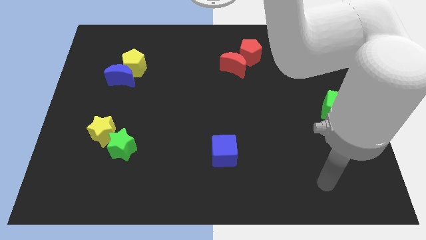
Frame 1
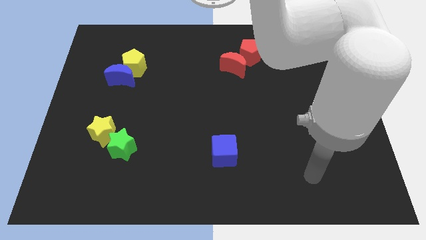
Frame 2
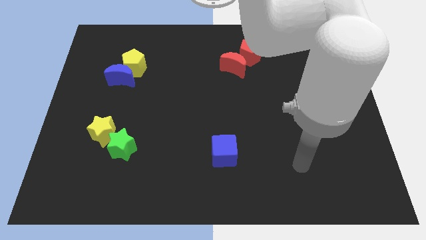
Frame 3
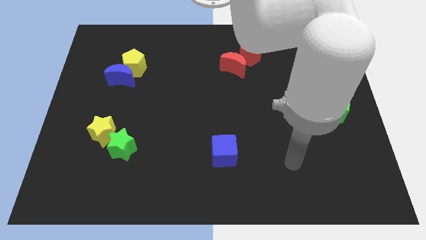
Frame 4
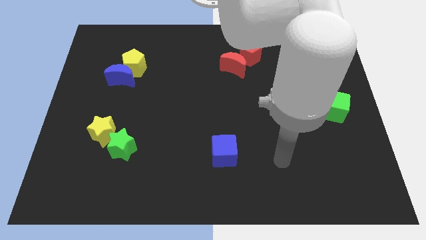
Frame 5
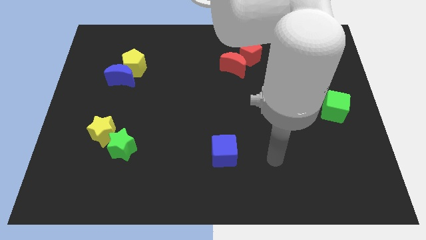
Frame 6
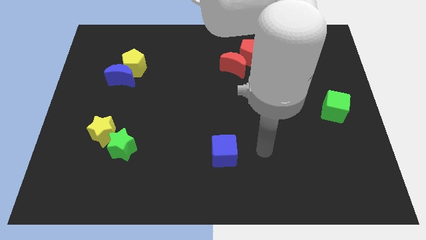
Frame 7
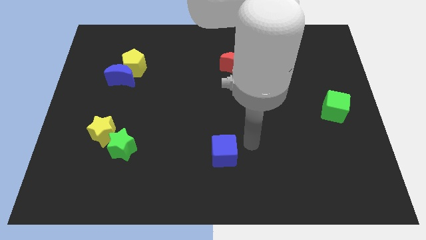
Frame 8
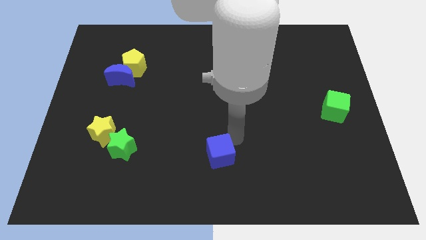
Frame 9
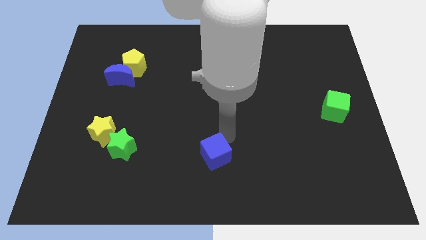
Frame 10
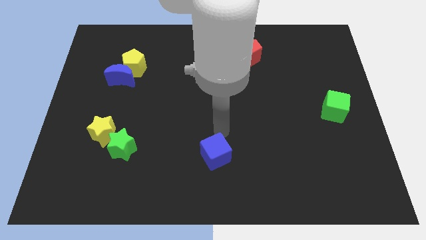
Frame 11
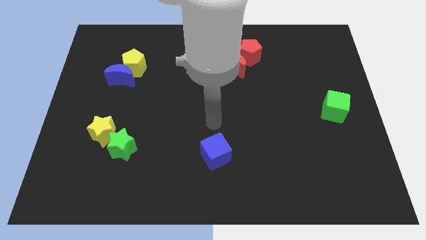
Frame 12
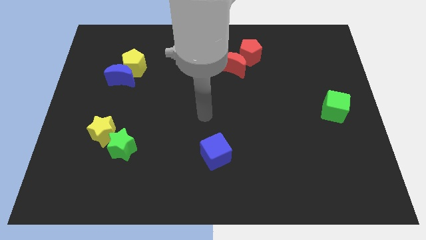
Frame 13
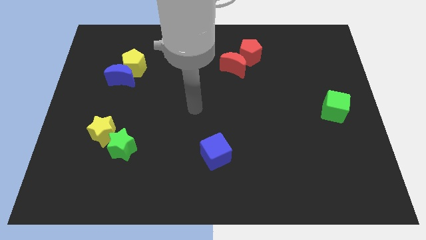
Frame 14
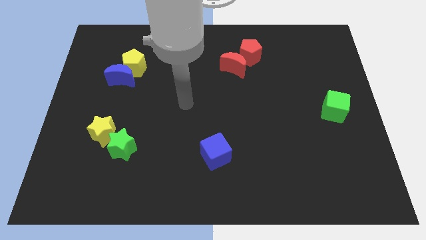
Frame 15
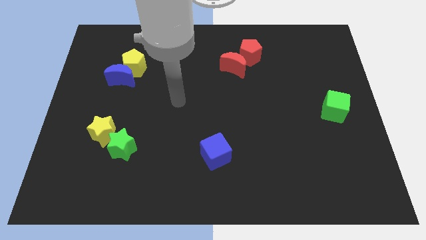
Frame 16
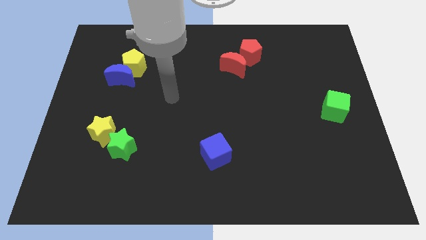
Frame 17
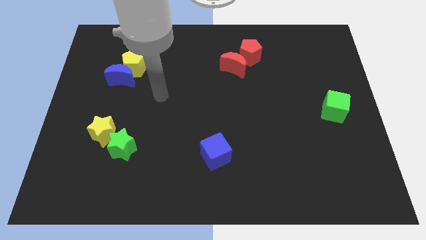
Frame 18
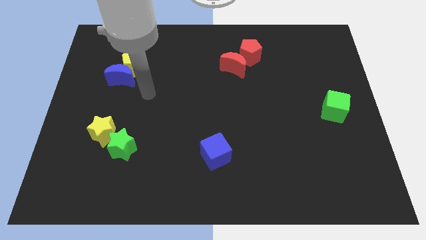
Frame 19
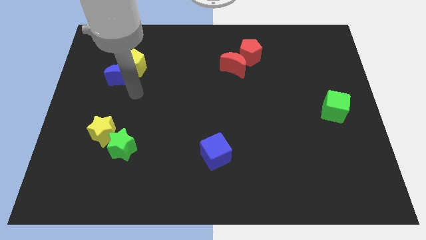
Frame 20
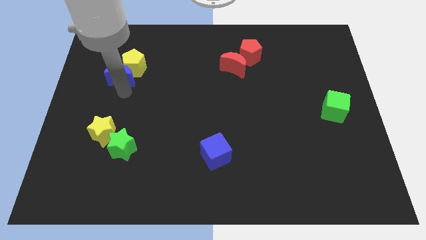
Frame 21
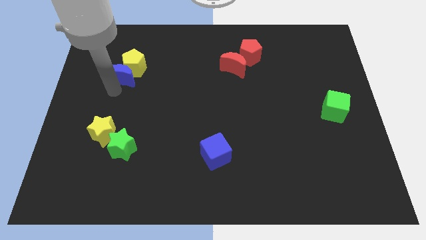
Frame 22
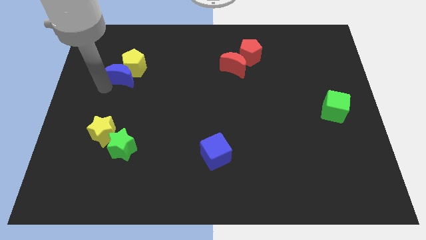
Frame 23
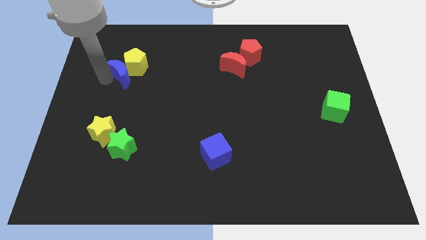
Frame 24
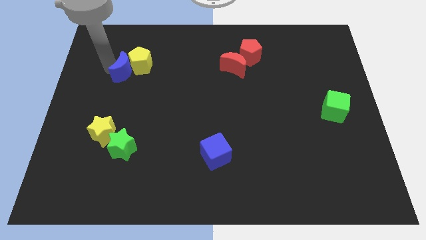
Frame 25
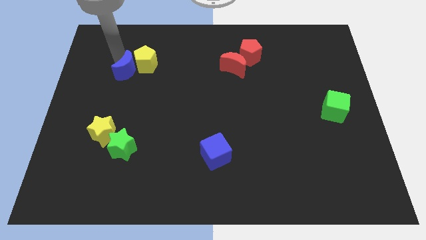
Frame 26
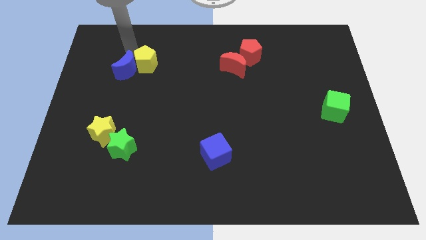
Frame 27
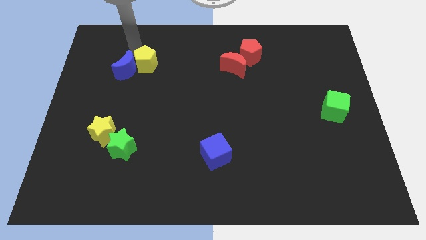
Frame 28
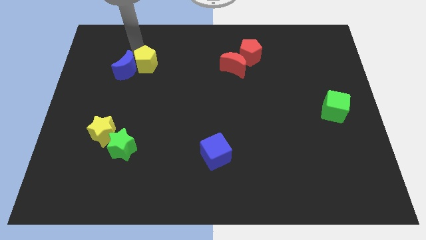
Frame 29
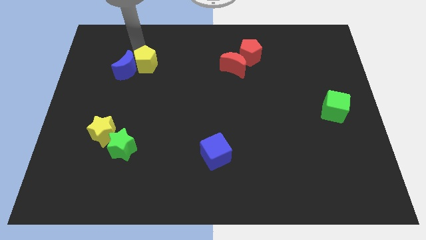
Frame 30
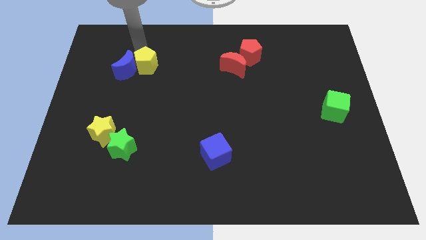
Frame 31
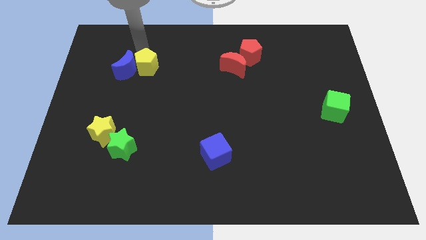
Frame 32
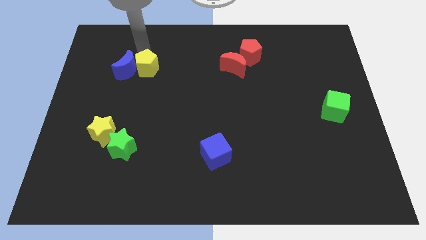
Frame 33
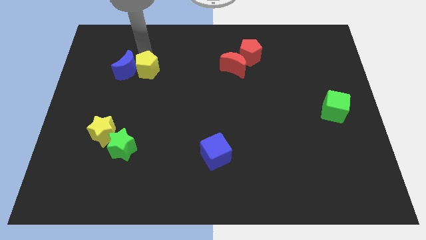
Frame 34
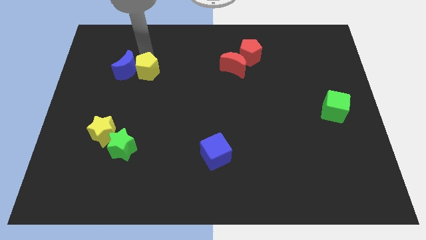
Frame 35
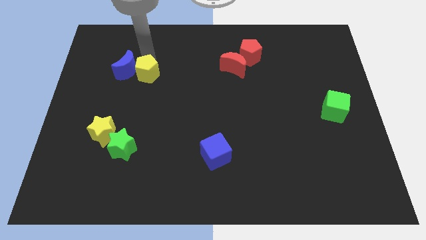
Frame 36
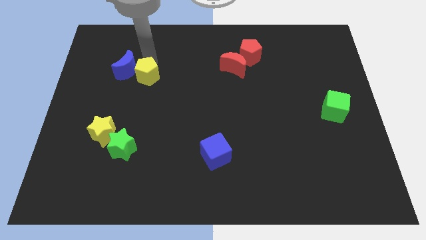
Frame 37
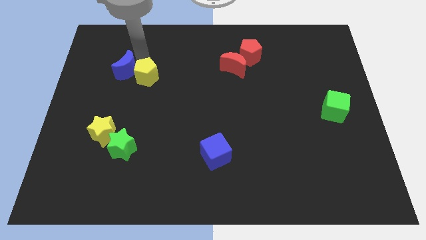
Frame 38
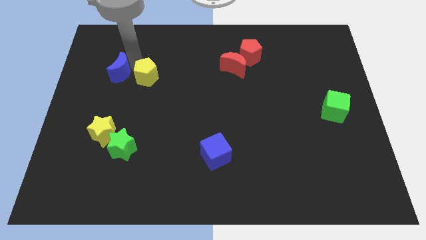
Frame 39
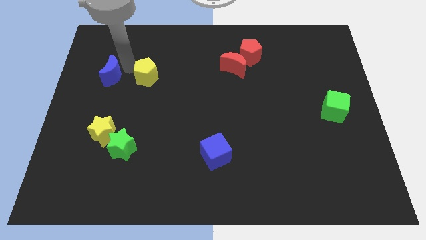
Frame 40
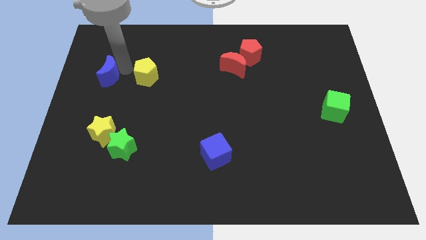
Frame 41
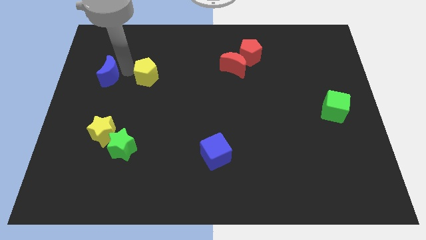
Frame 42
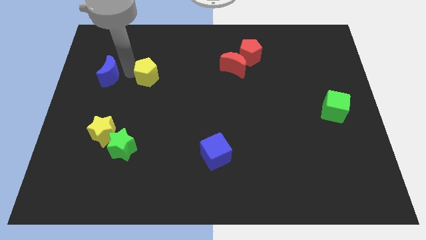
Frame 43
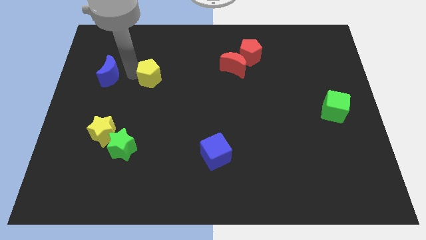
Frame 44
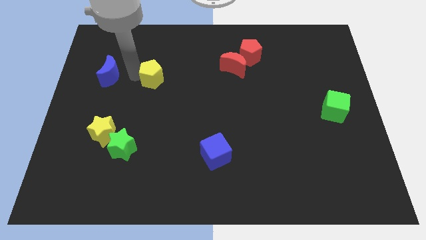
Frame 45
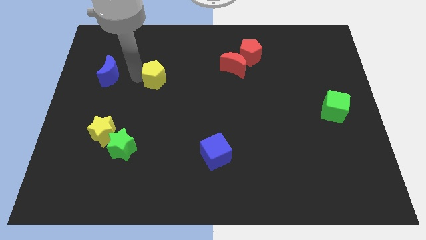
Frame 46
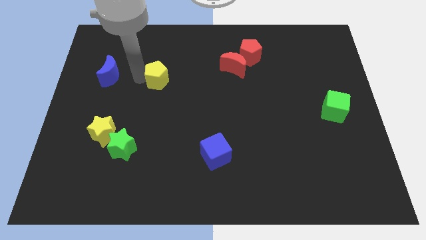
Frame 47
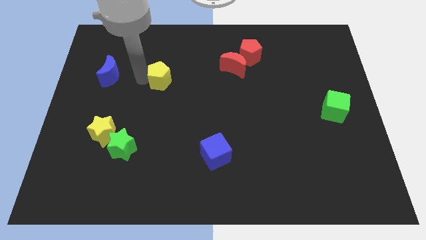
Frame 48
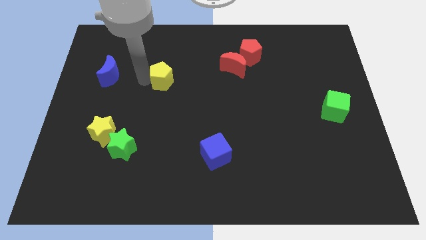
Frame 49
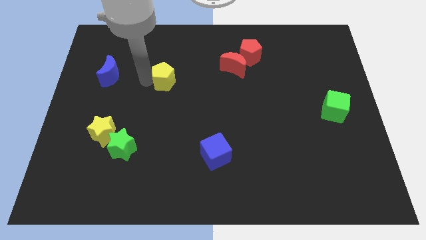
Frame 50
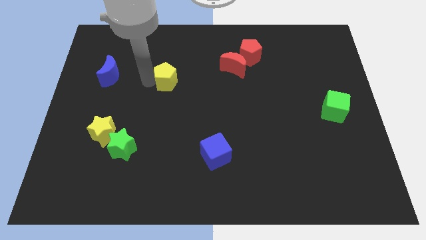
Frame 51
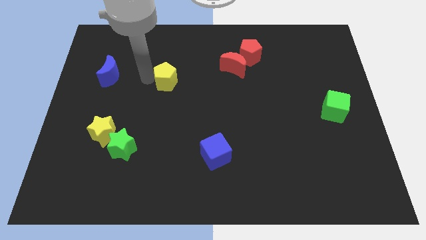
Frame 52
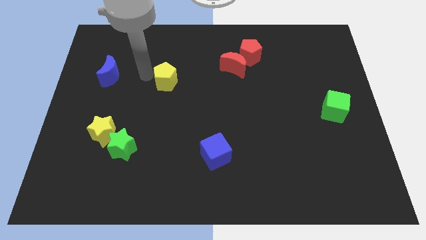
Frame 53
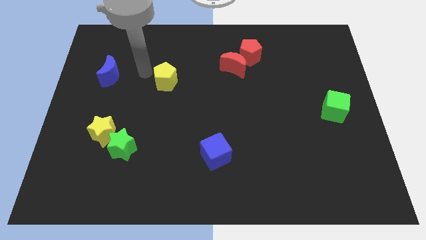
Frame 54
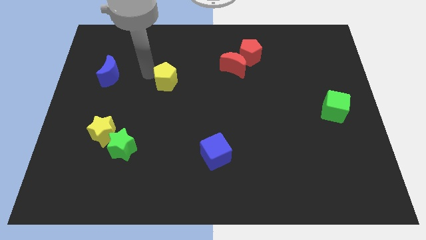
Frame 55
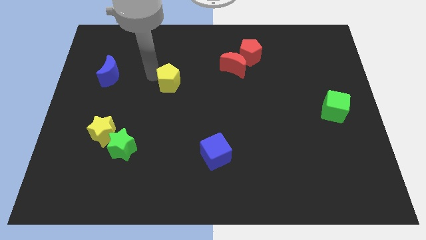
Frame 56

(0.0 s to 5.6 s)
put the yellow pentagon to the middle of the board

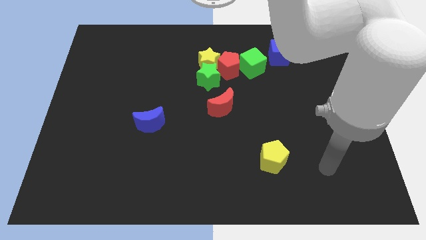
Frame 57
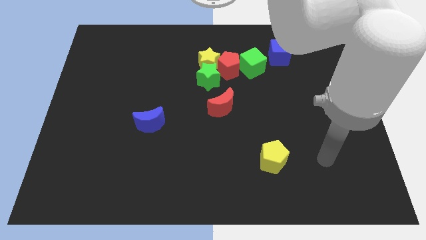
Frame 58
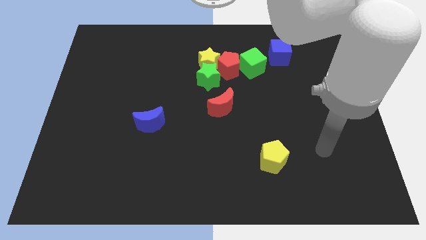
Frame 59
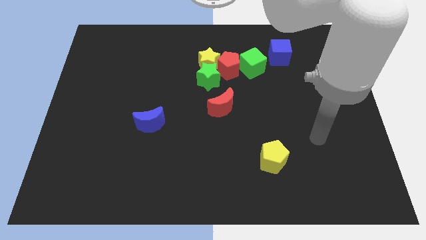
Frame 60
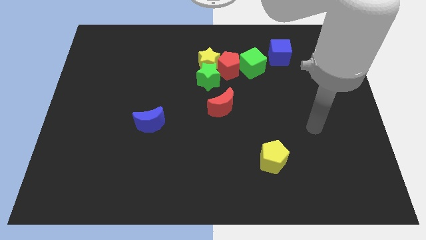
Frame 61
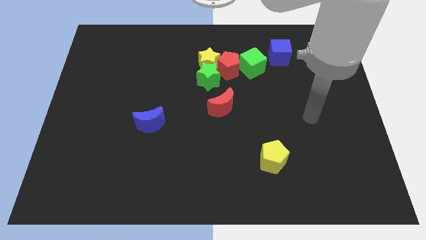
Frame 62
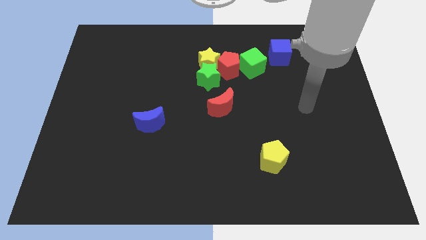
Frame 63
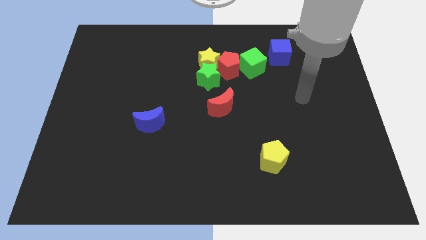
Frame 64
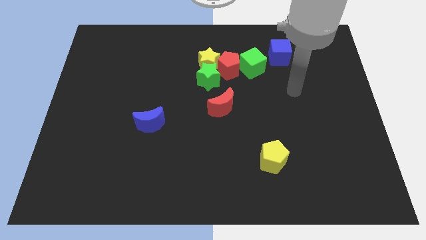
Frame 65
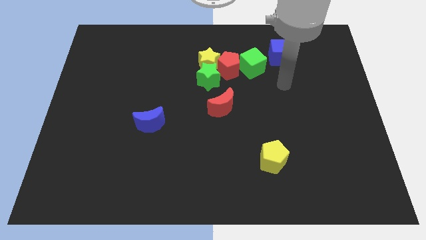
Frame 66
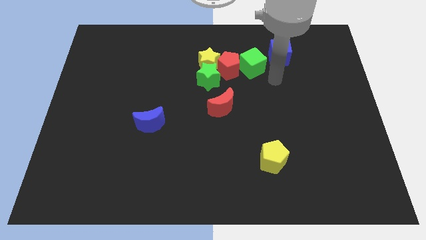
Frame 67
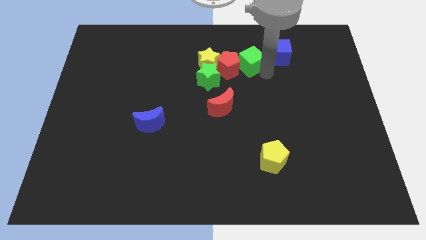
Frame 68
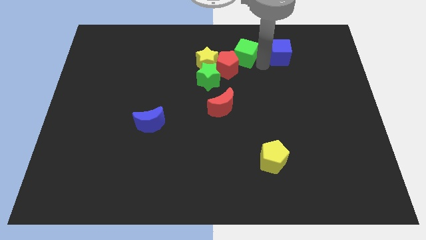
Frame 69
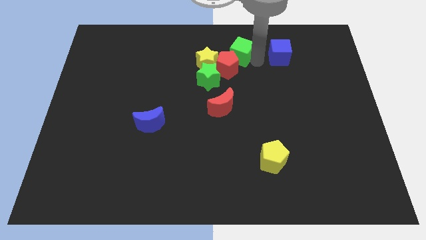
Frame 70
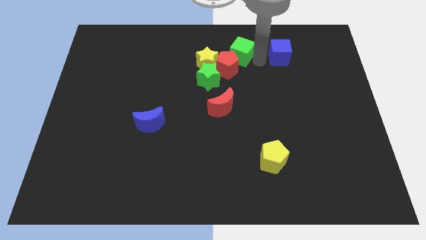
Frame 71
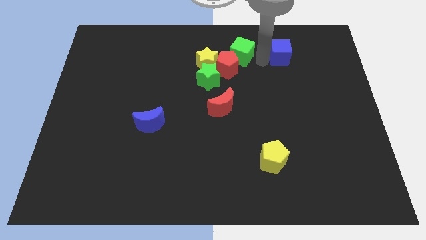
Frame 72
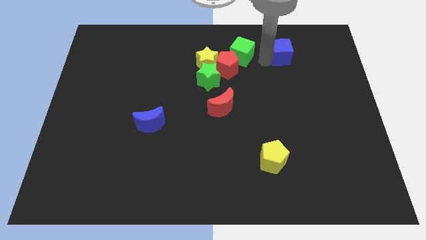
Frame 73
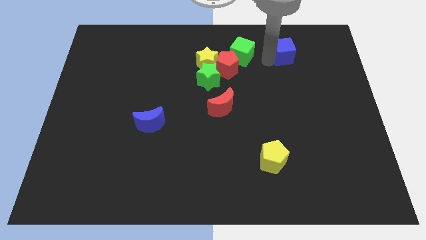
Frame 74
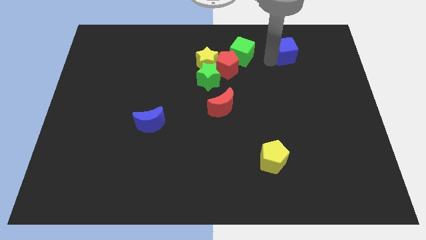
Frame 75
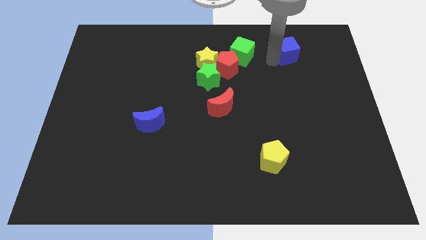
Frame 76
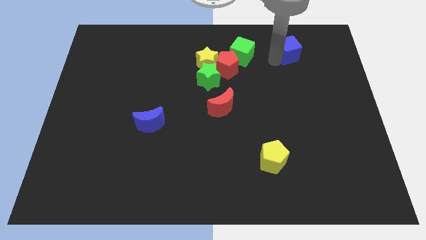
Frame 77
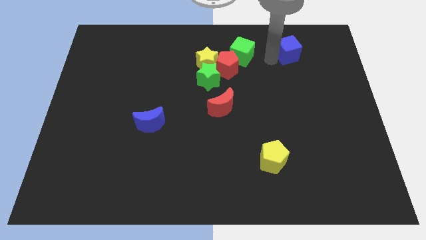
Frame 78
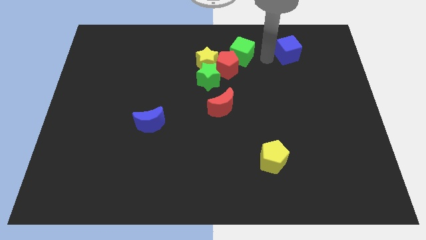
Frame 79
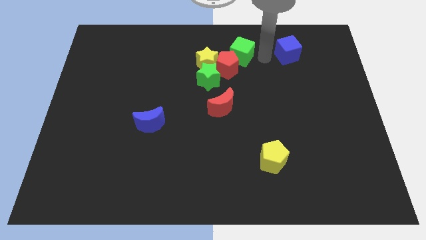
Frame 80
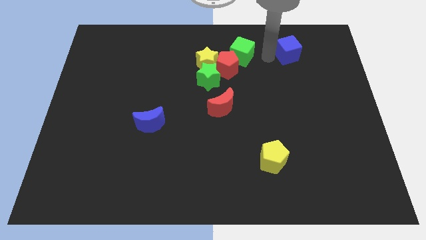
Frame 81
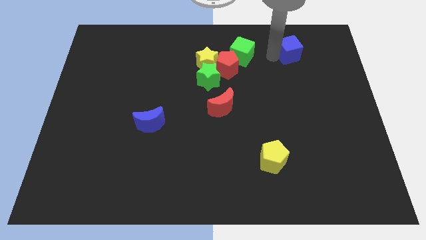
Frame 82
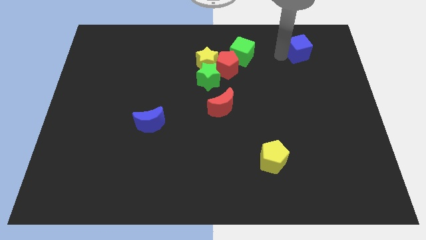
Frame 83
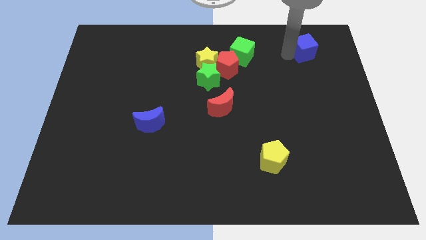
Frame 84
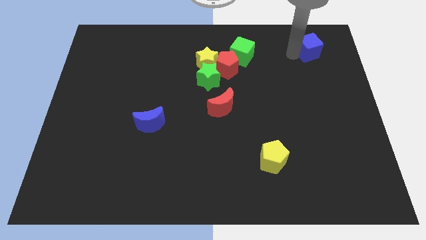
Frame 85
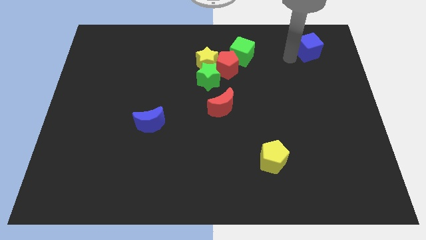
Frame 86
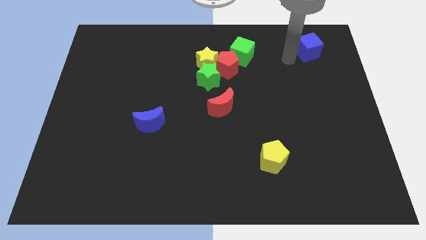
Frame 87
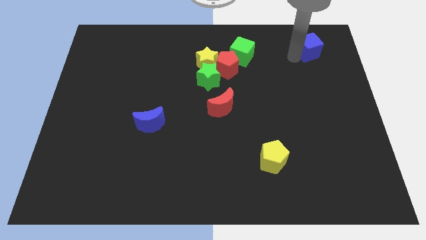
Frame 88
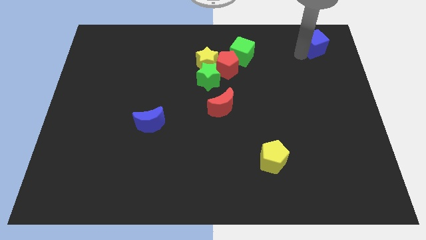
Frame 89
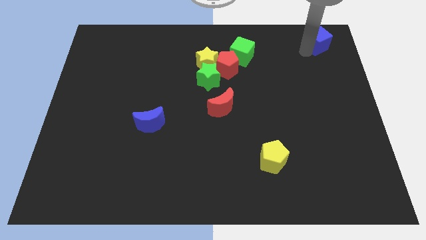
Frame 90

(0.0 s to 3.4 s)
push the blue cube to the upper right corner
